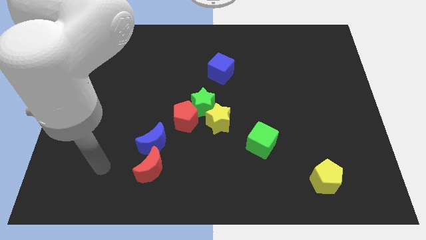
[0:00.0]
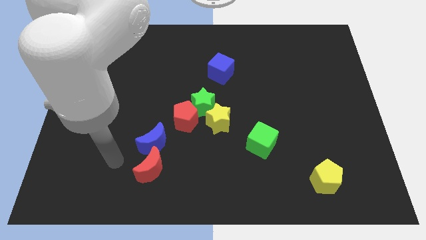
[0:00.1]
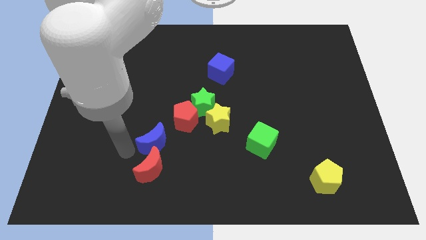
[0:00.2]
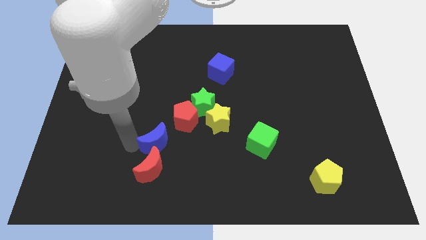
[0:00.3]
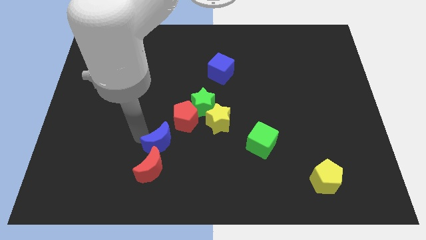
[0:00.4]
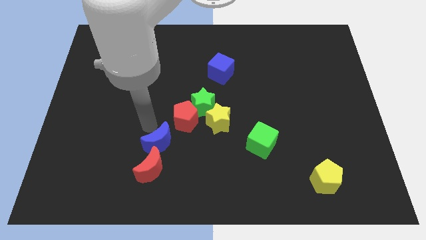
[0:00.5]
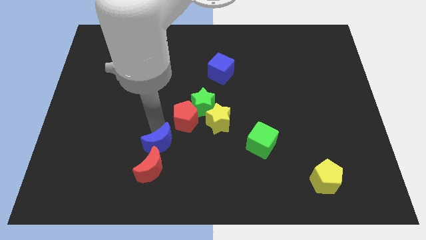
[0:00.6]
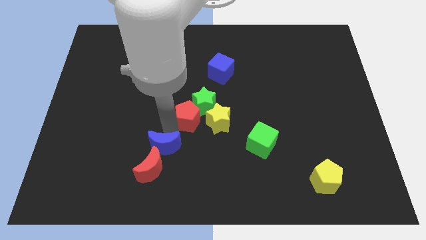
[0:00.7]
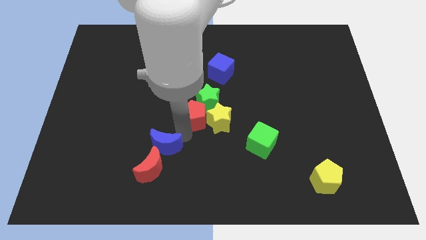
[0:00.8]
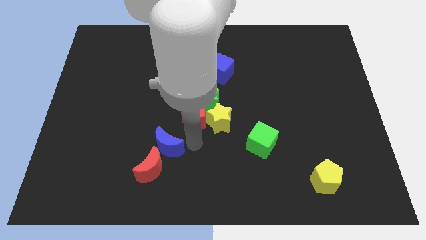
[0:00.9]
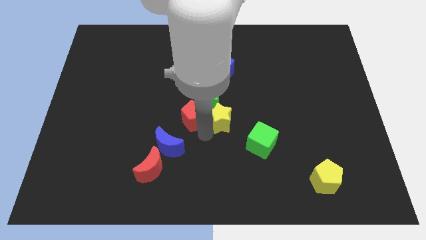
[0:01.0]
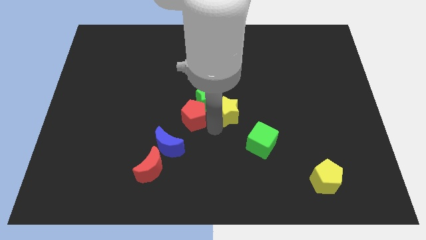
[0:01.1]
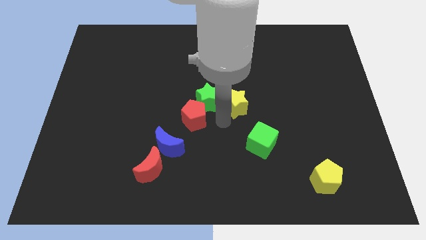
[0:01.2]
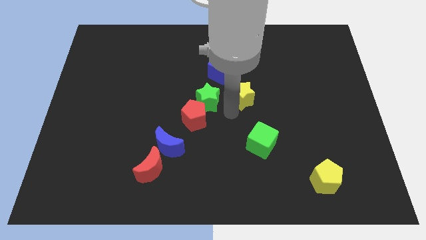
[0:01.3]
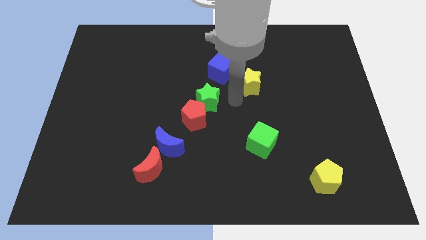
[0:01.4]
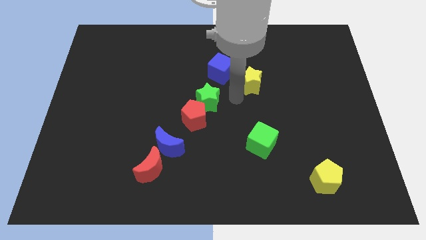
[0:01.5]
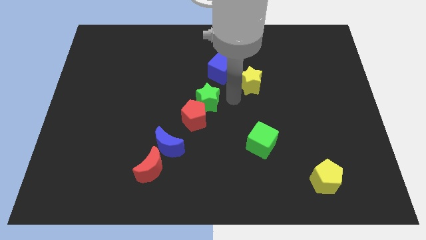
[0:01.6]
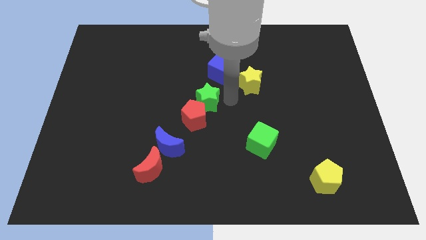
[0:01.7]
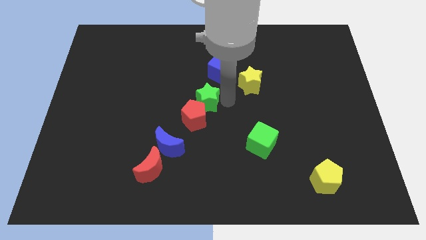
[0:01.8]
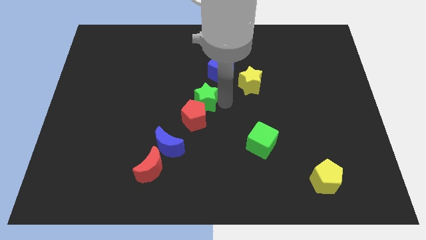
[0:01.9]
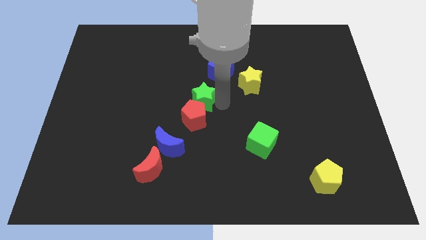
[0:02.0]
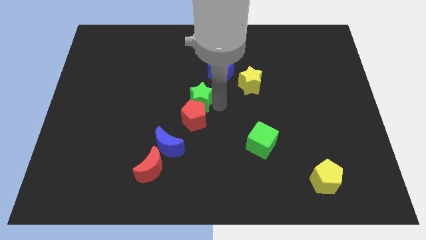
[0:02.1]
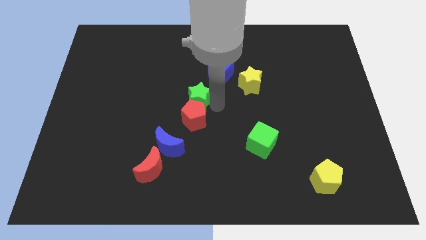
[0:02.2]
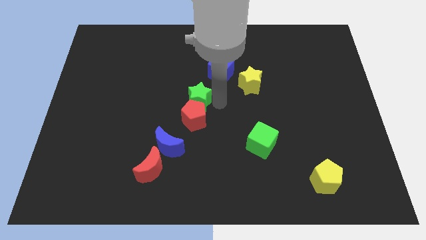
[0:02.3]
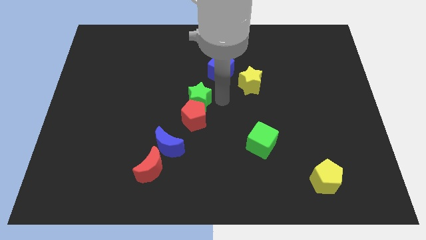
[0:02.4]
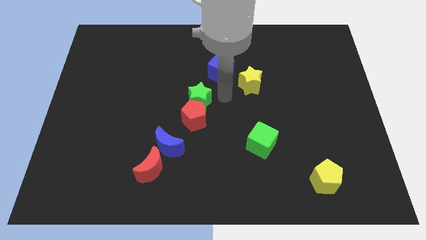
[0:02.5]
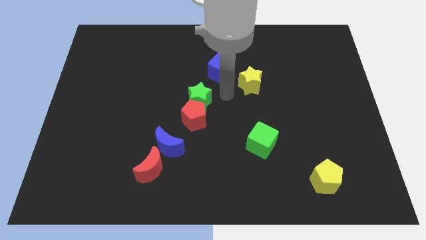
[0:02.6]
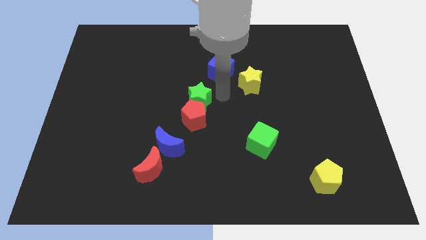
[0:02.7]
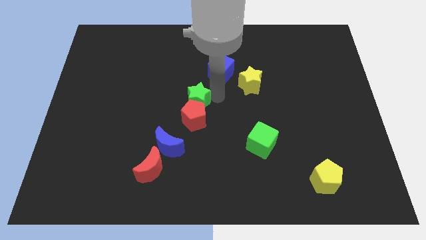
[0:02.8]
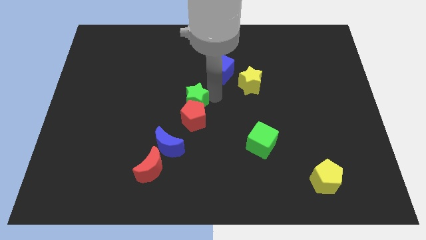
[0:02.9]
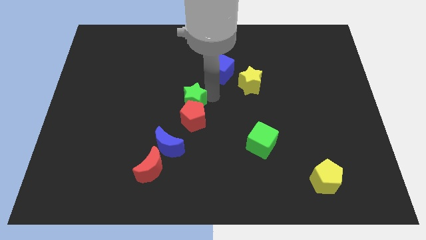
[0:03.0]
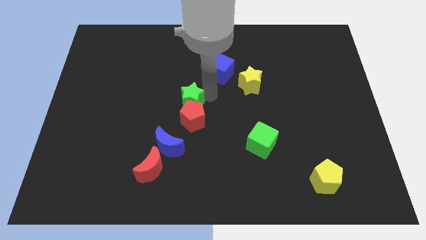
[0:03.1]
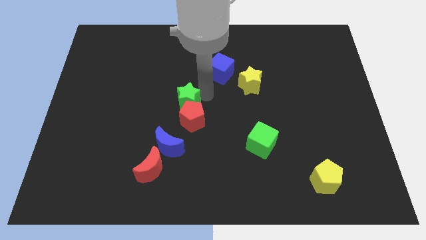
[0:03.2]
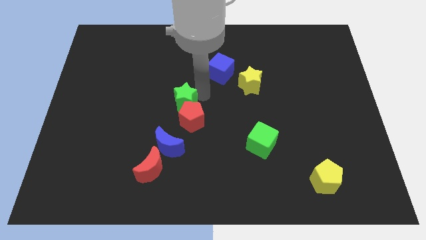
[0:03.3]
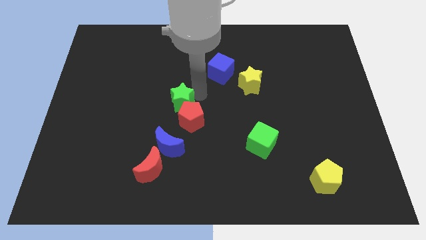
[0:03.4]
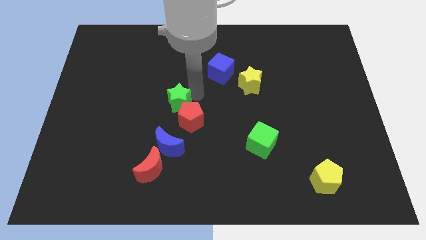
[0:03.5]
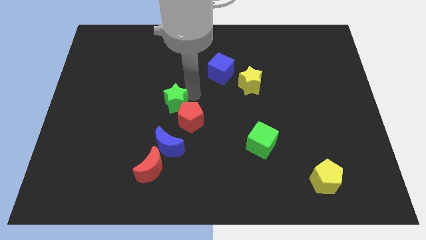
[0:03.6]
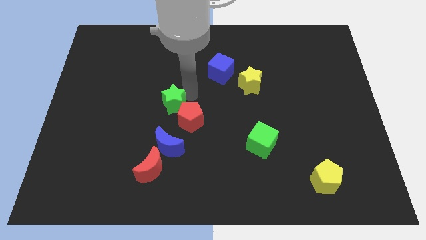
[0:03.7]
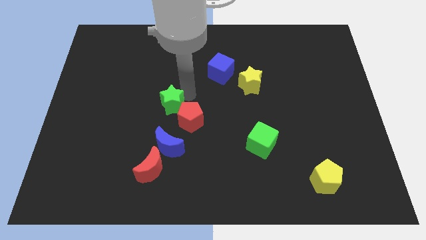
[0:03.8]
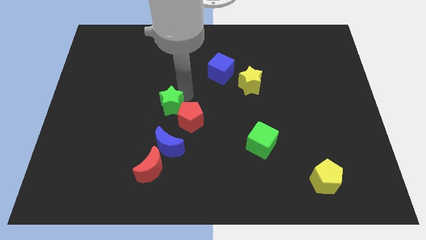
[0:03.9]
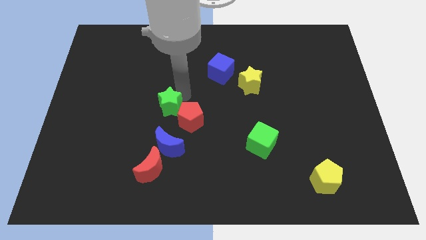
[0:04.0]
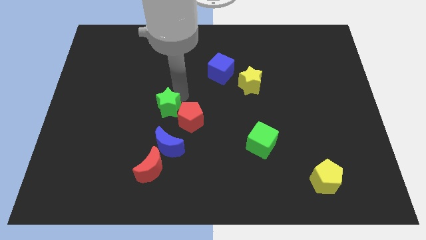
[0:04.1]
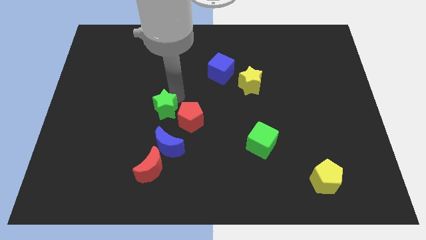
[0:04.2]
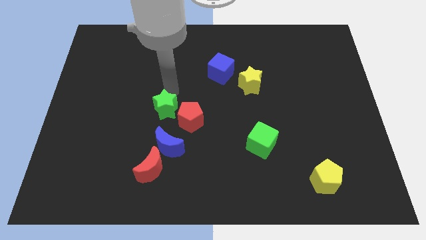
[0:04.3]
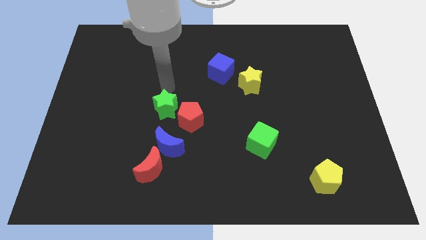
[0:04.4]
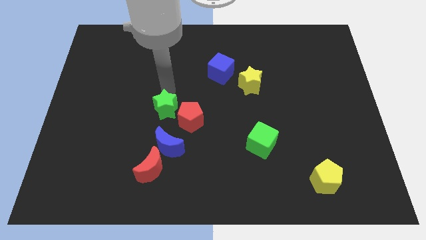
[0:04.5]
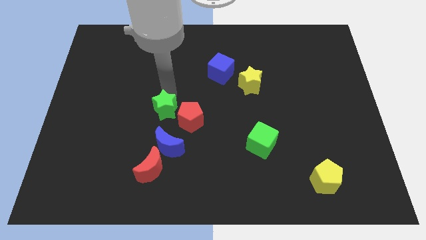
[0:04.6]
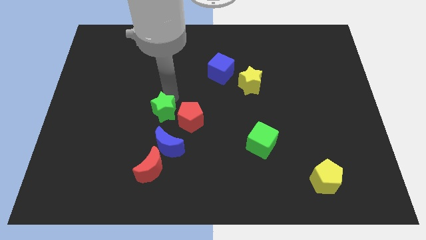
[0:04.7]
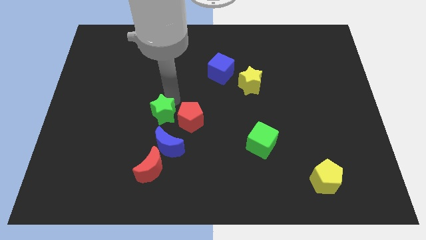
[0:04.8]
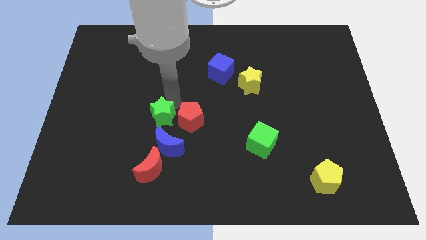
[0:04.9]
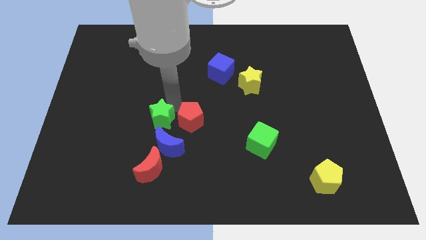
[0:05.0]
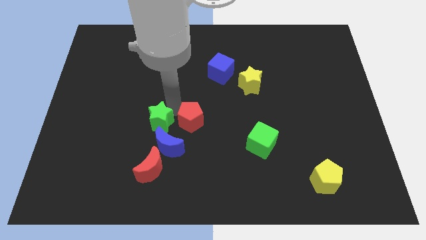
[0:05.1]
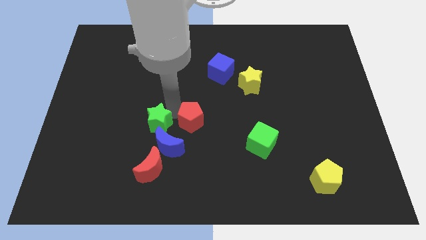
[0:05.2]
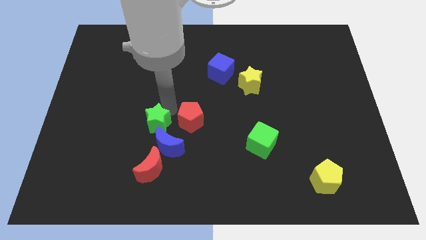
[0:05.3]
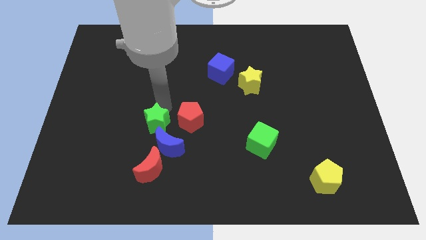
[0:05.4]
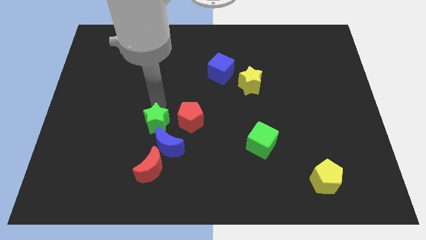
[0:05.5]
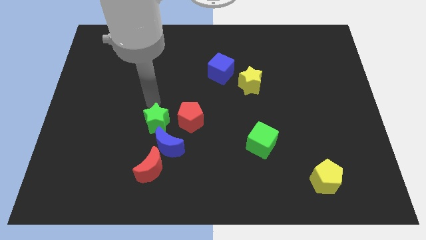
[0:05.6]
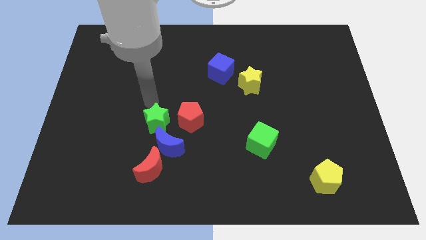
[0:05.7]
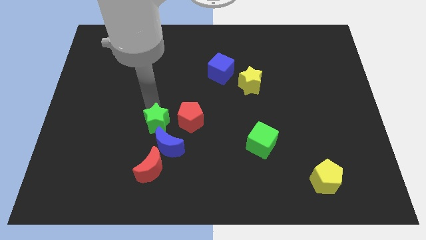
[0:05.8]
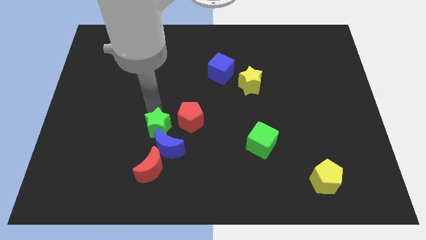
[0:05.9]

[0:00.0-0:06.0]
put the green star next to the blue moon

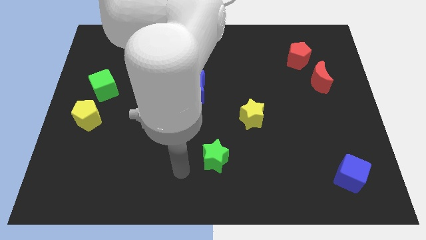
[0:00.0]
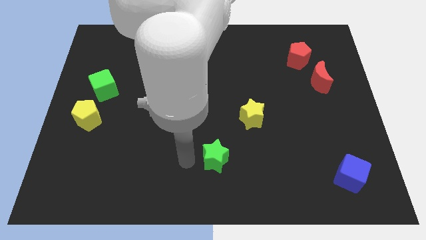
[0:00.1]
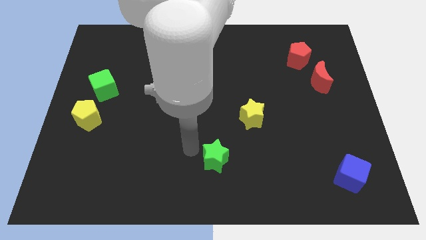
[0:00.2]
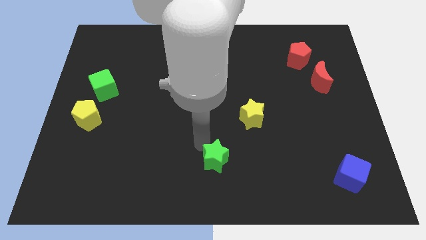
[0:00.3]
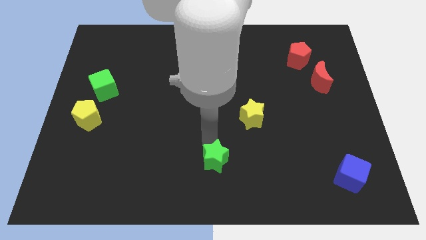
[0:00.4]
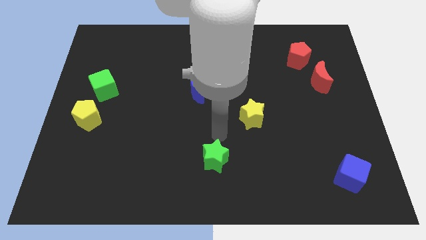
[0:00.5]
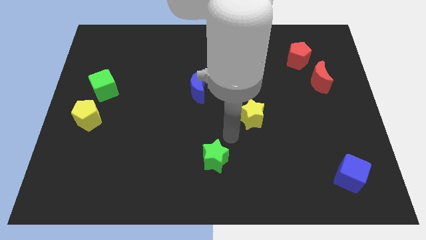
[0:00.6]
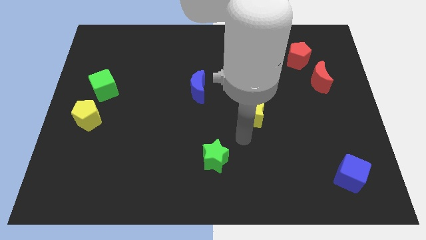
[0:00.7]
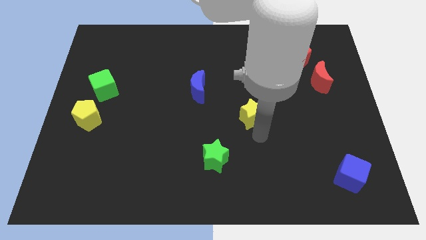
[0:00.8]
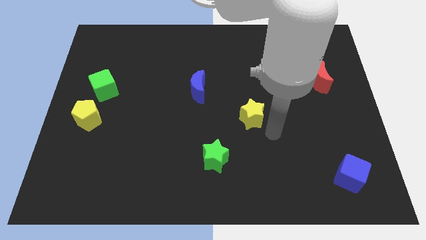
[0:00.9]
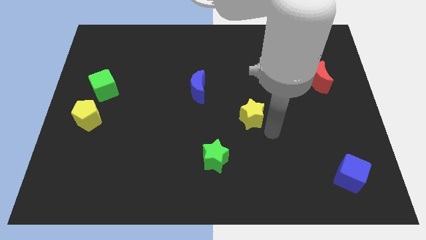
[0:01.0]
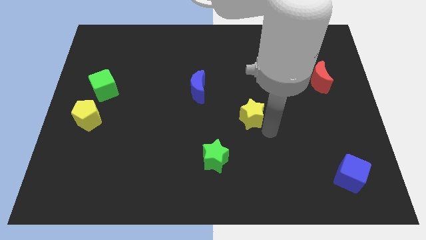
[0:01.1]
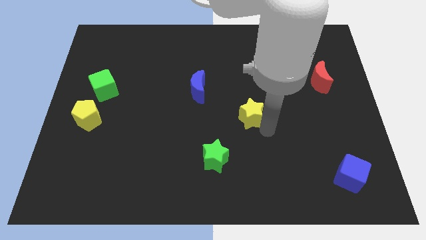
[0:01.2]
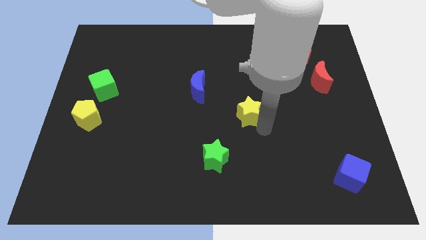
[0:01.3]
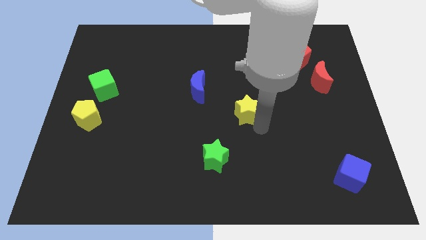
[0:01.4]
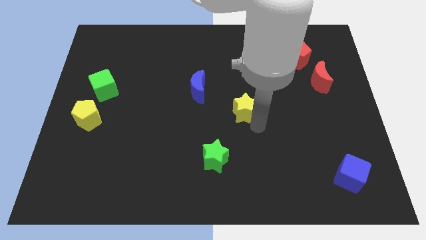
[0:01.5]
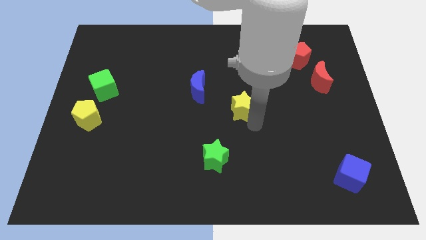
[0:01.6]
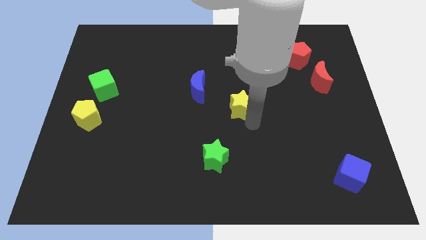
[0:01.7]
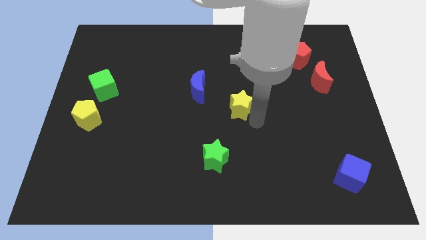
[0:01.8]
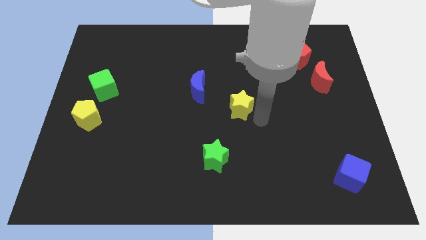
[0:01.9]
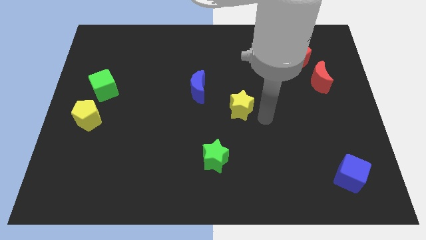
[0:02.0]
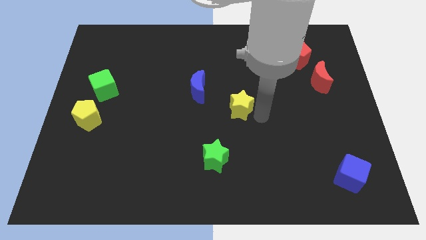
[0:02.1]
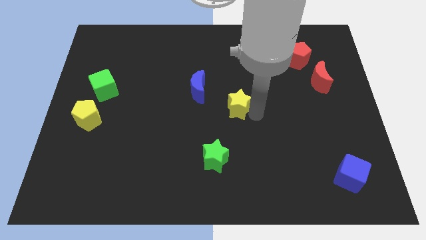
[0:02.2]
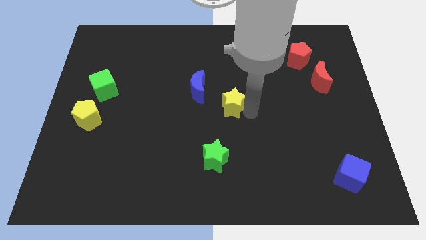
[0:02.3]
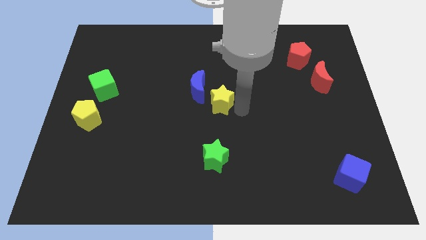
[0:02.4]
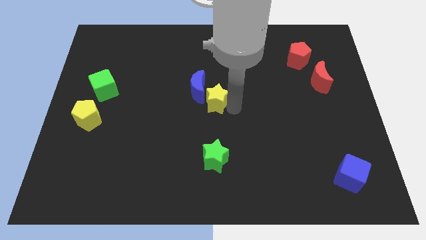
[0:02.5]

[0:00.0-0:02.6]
put the yellow star towards the blue moon
